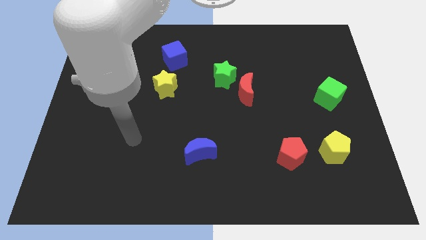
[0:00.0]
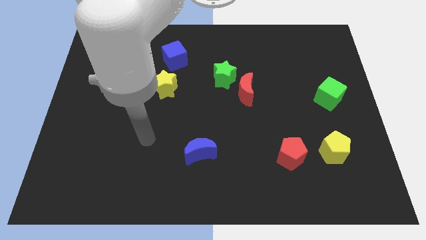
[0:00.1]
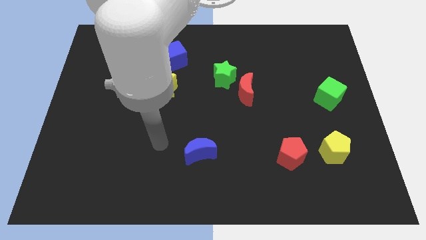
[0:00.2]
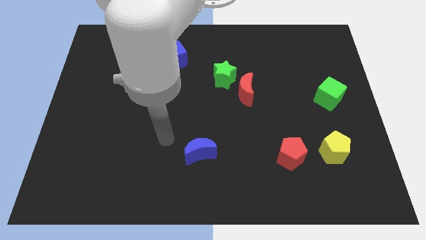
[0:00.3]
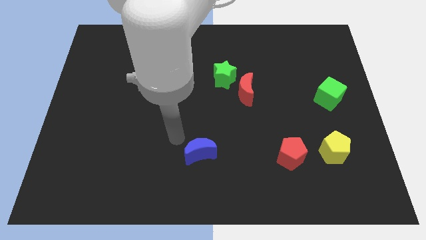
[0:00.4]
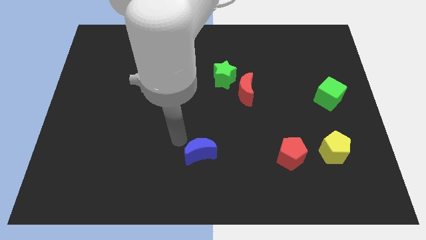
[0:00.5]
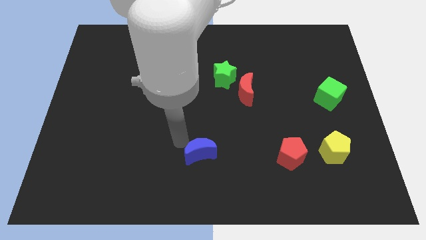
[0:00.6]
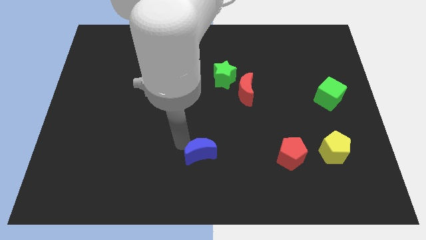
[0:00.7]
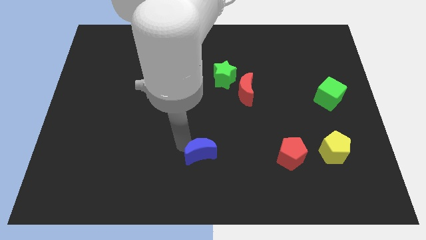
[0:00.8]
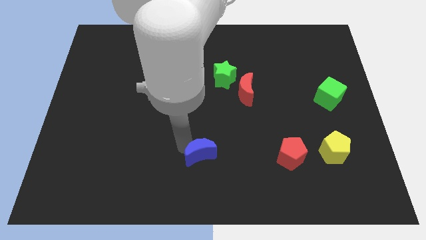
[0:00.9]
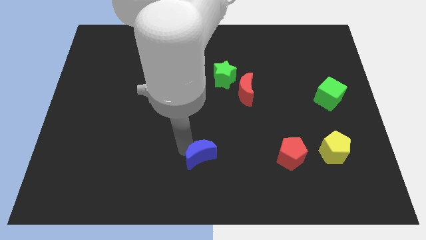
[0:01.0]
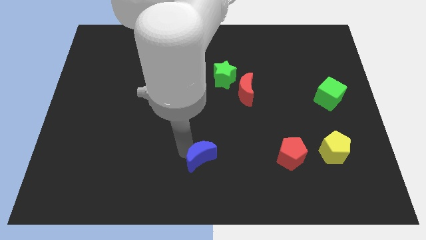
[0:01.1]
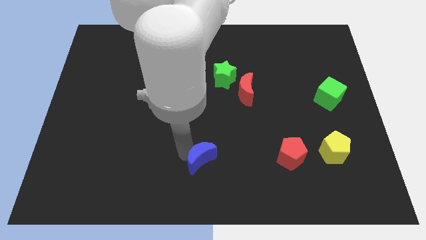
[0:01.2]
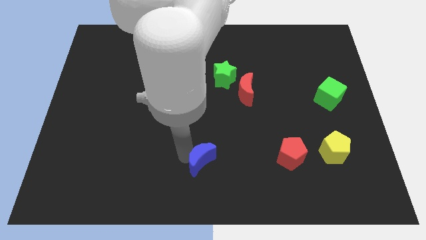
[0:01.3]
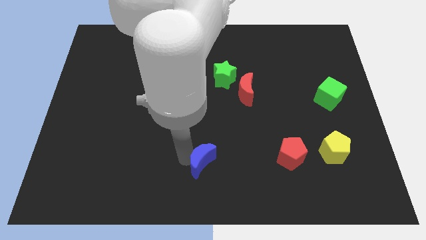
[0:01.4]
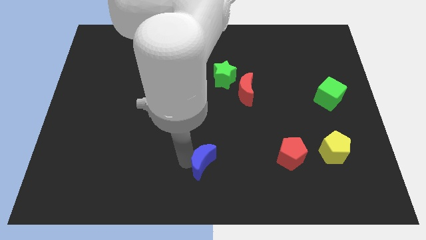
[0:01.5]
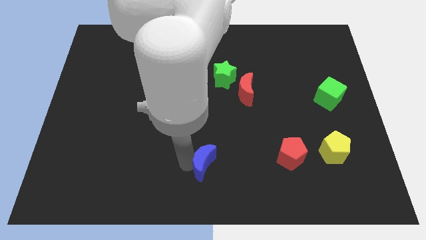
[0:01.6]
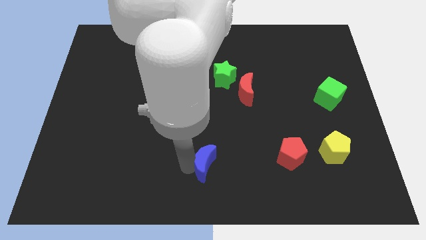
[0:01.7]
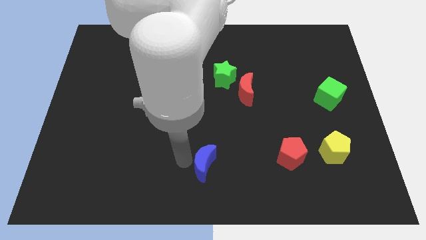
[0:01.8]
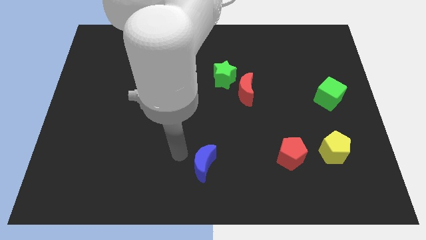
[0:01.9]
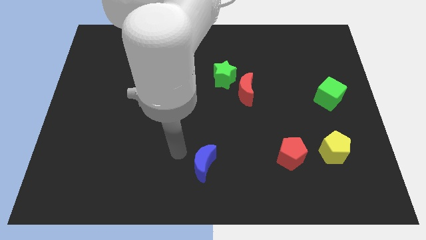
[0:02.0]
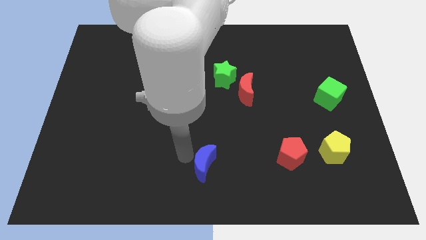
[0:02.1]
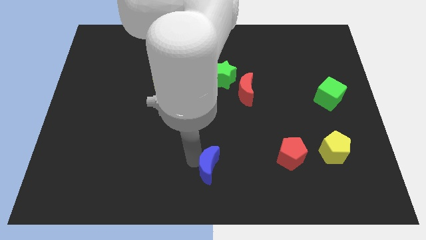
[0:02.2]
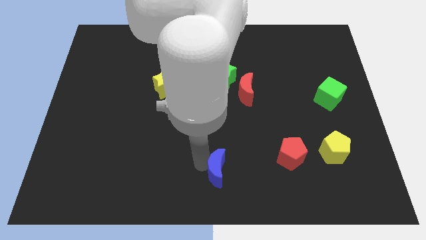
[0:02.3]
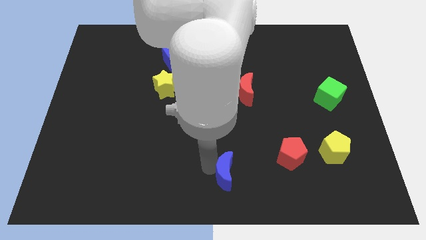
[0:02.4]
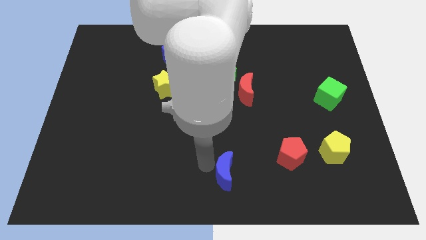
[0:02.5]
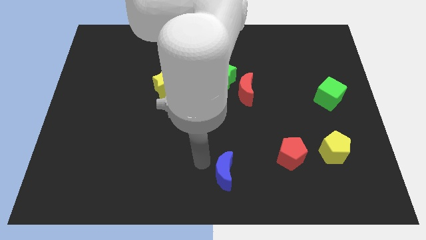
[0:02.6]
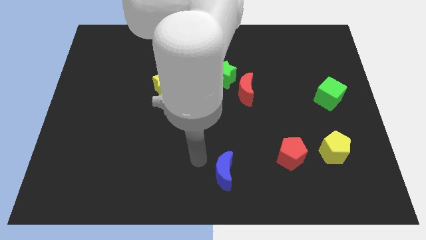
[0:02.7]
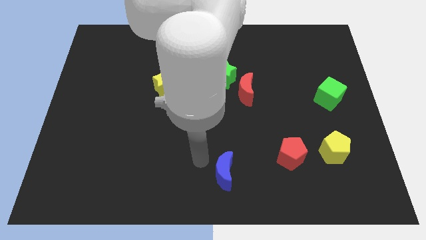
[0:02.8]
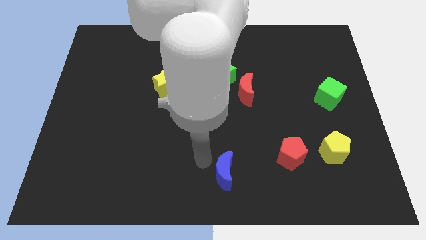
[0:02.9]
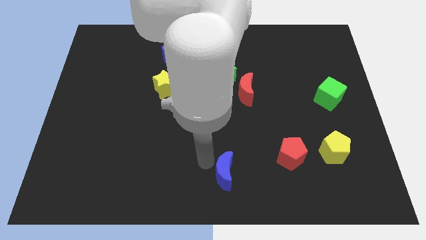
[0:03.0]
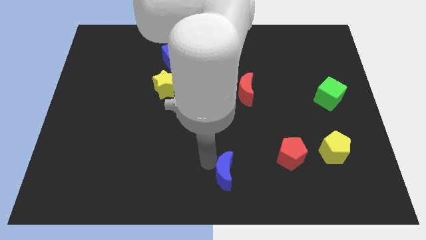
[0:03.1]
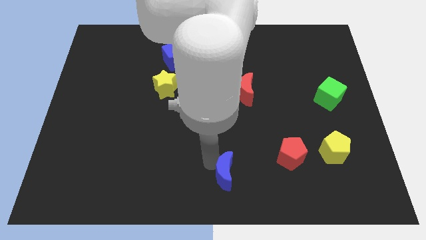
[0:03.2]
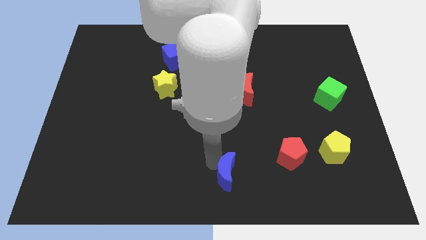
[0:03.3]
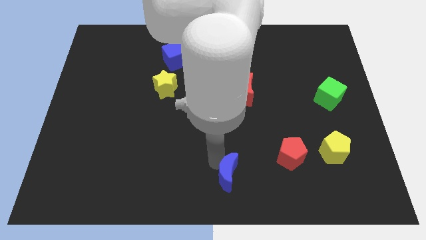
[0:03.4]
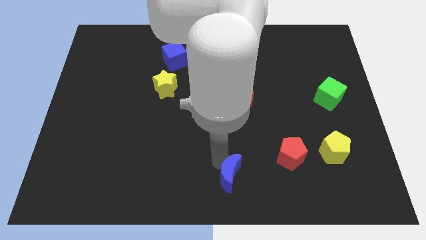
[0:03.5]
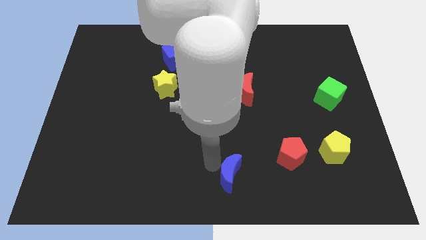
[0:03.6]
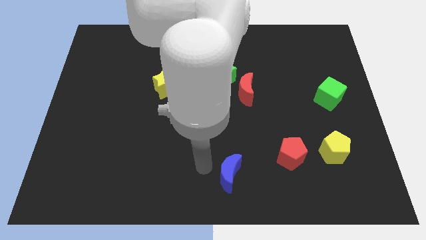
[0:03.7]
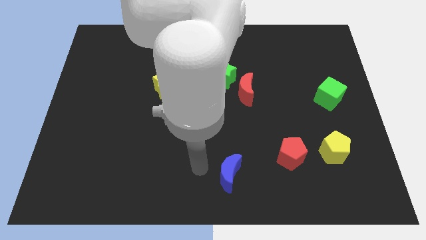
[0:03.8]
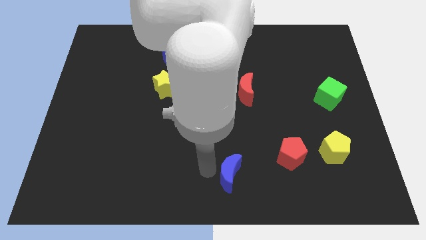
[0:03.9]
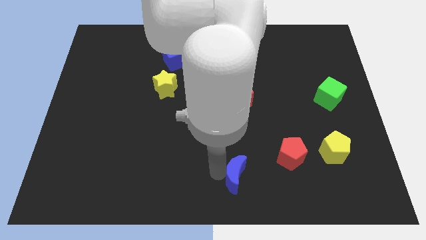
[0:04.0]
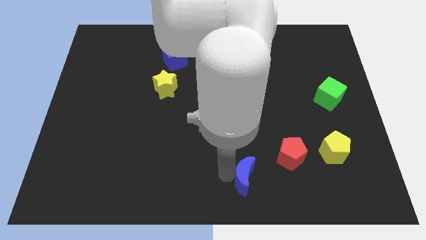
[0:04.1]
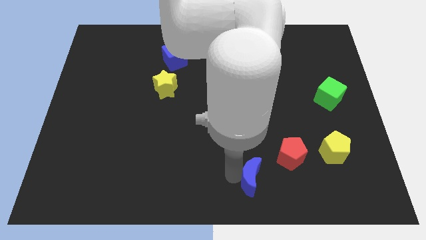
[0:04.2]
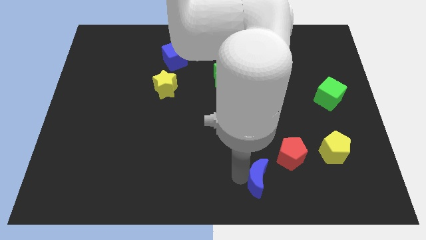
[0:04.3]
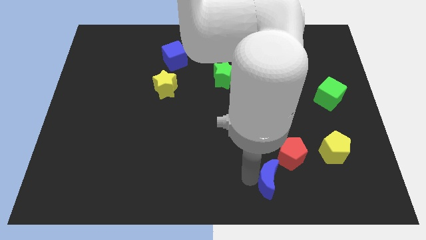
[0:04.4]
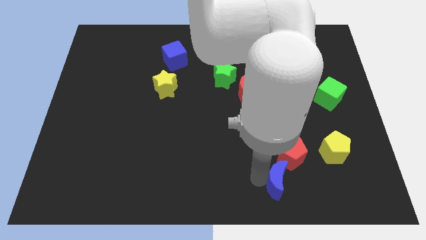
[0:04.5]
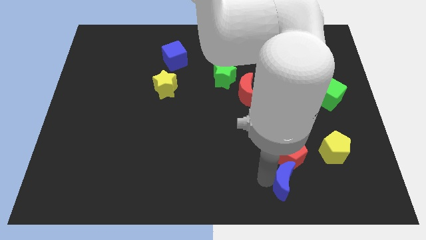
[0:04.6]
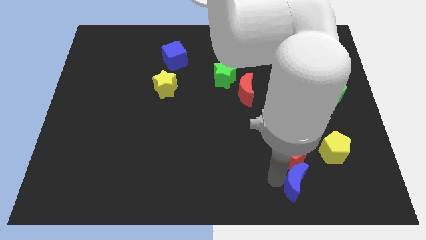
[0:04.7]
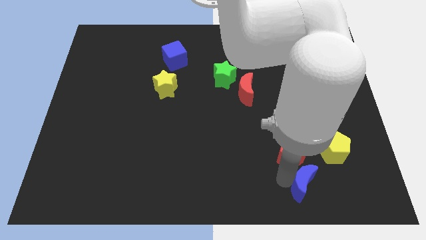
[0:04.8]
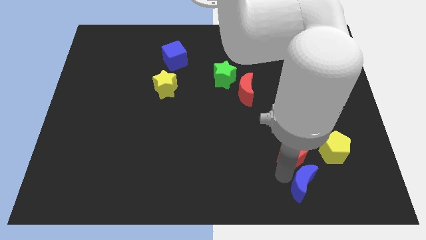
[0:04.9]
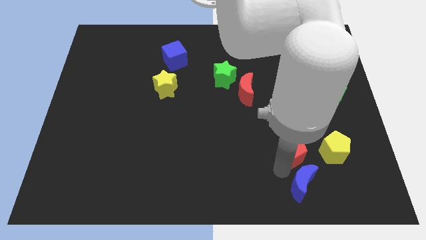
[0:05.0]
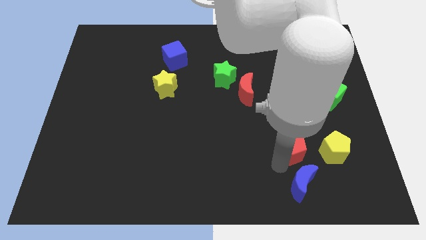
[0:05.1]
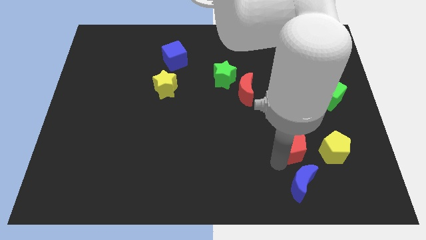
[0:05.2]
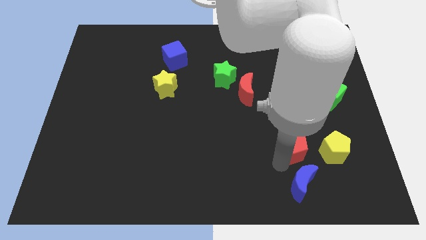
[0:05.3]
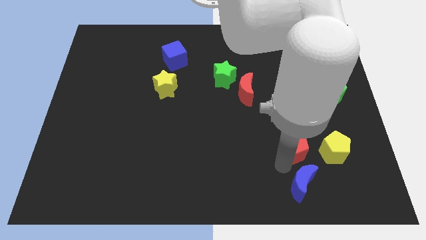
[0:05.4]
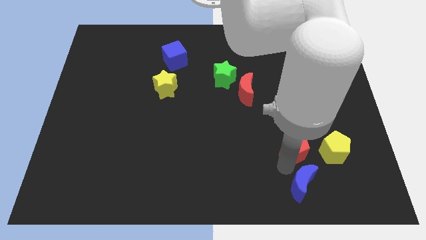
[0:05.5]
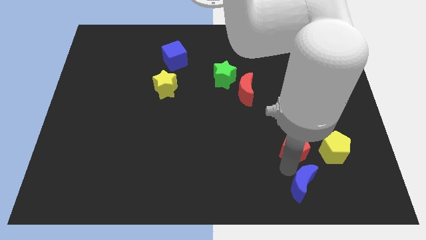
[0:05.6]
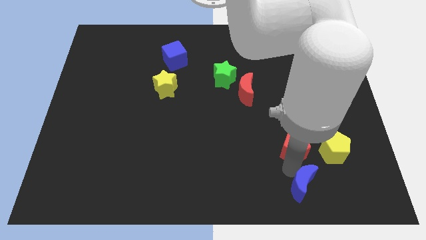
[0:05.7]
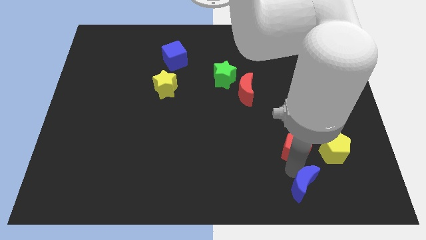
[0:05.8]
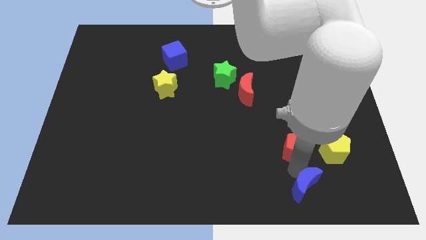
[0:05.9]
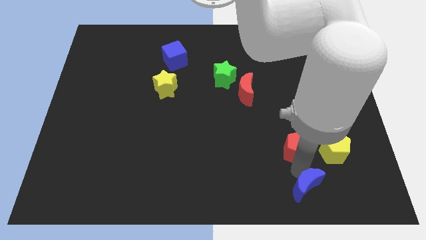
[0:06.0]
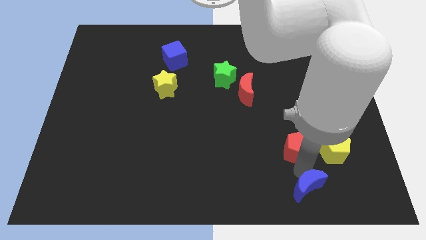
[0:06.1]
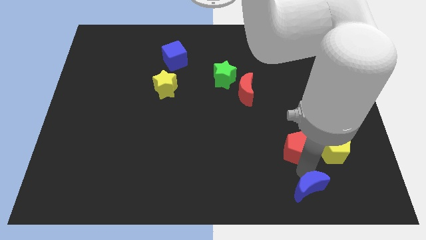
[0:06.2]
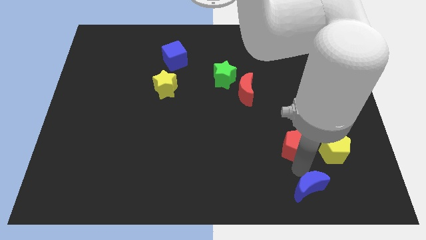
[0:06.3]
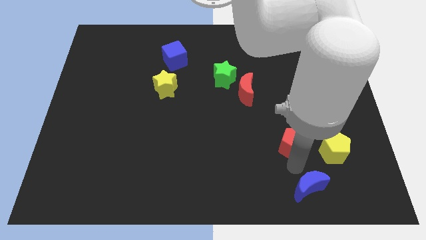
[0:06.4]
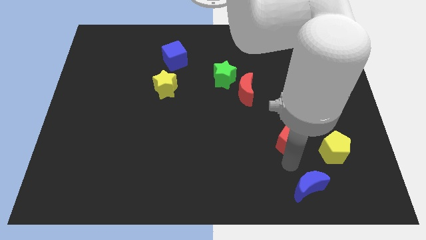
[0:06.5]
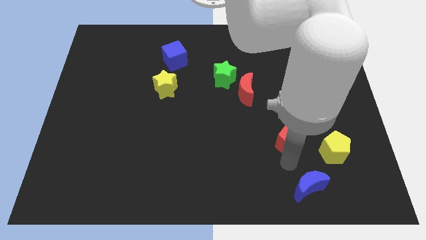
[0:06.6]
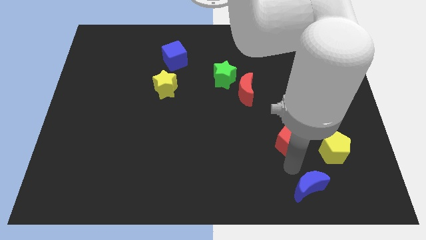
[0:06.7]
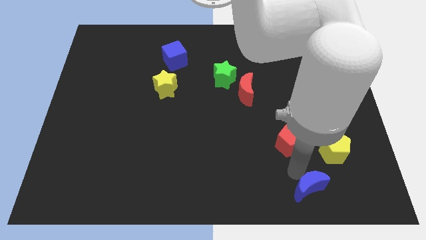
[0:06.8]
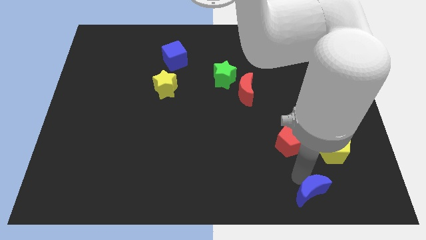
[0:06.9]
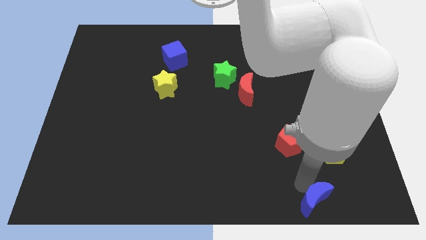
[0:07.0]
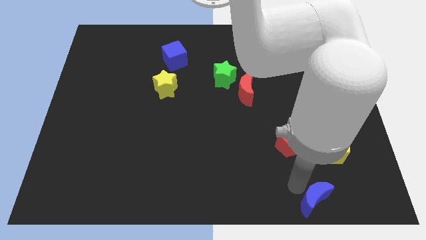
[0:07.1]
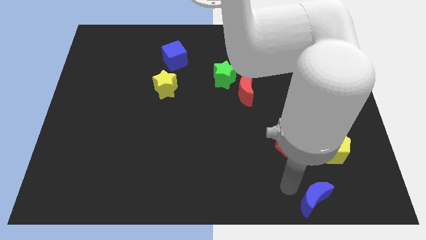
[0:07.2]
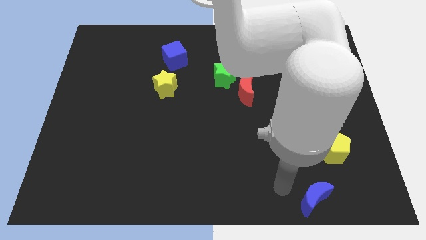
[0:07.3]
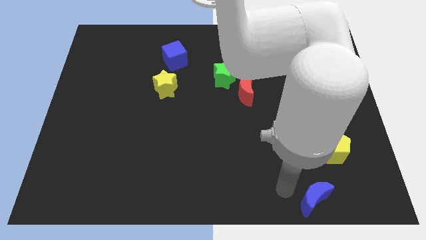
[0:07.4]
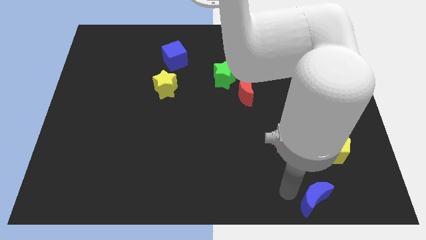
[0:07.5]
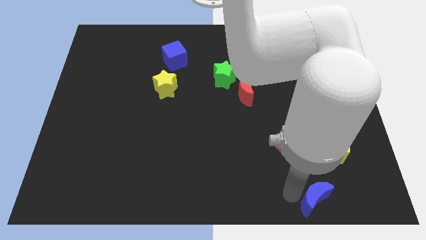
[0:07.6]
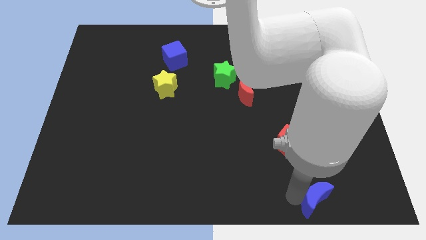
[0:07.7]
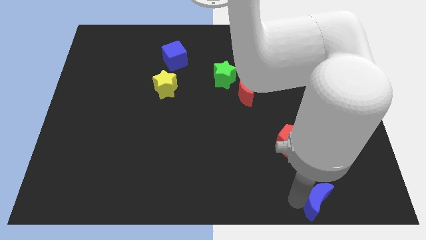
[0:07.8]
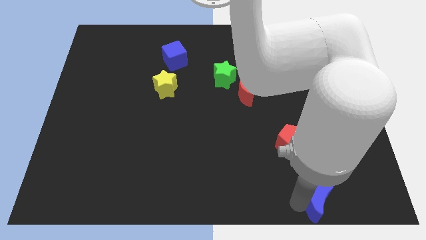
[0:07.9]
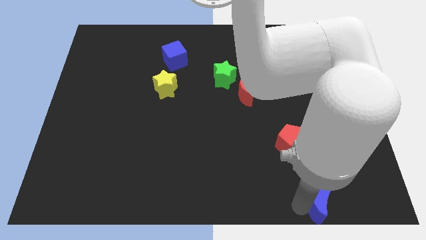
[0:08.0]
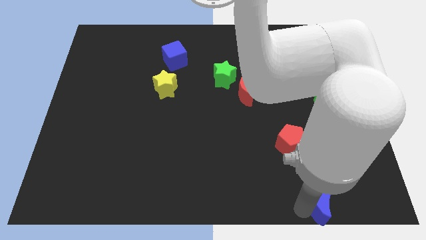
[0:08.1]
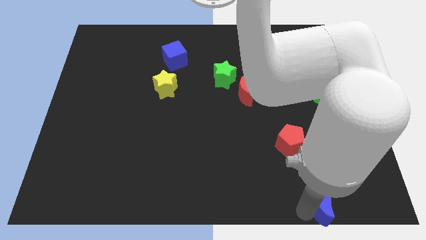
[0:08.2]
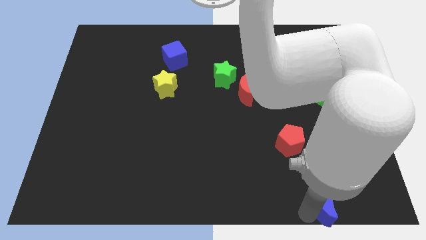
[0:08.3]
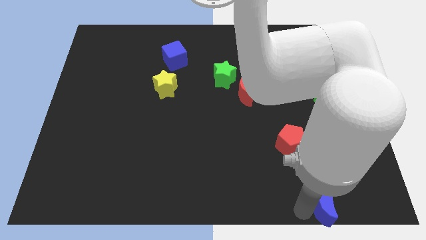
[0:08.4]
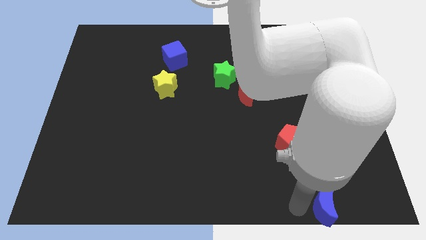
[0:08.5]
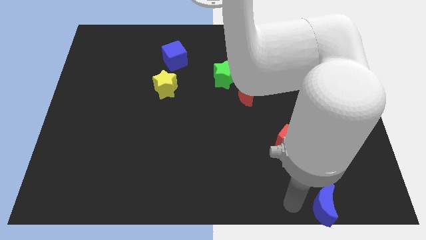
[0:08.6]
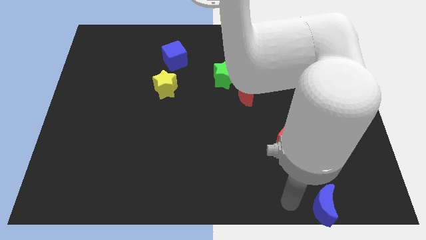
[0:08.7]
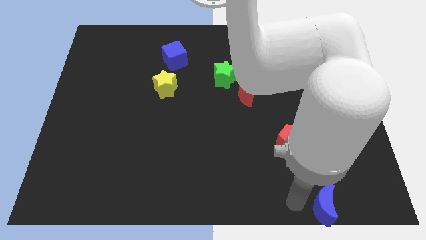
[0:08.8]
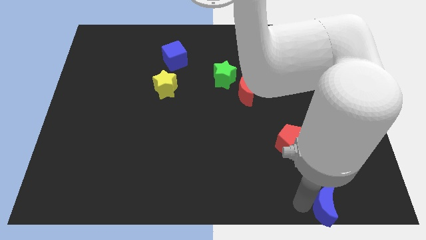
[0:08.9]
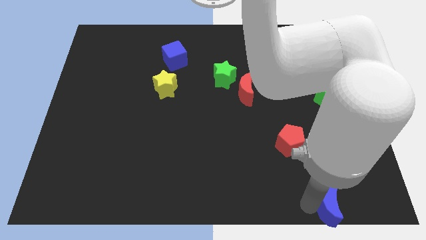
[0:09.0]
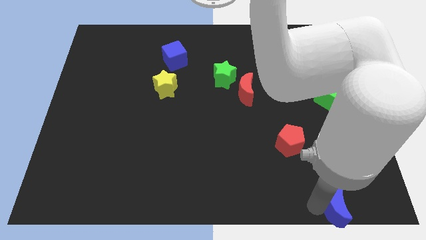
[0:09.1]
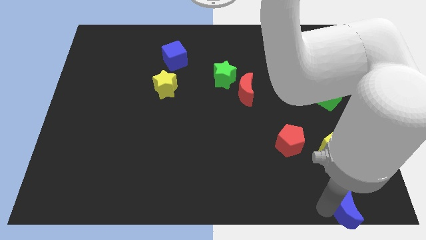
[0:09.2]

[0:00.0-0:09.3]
slide the blue moon to the bottom right
